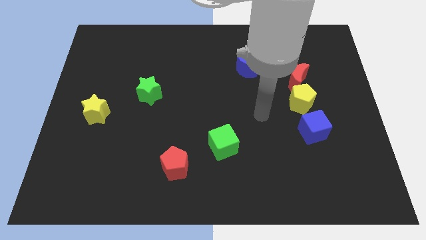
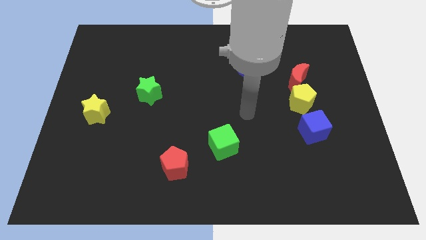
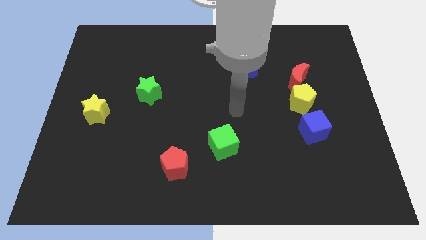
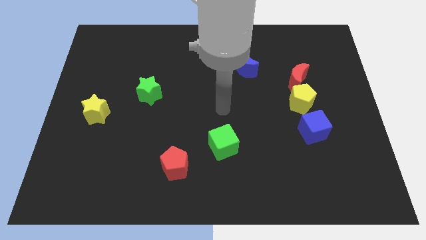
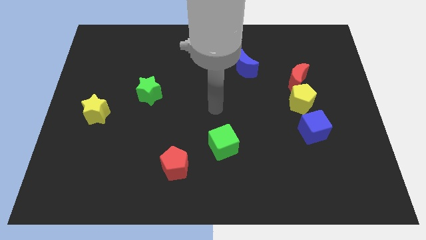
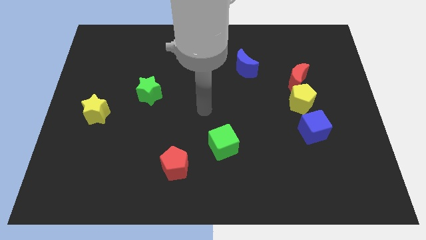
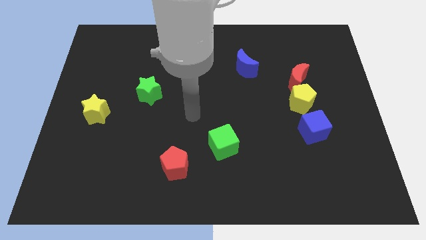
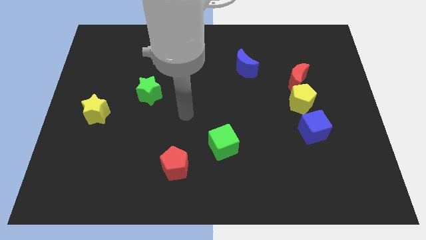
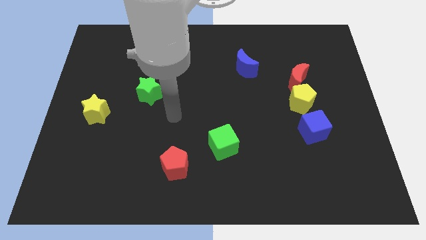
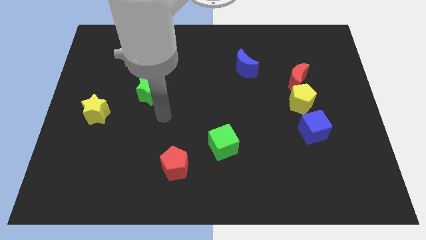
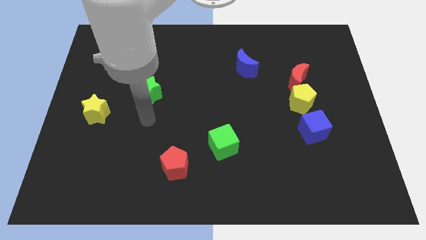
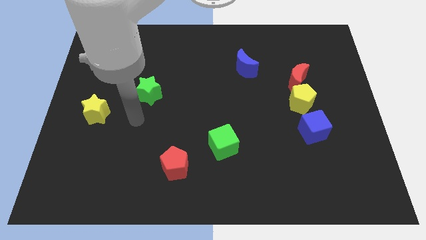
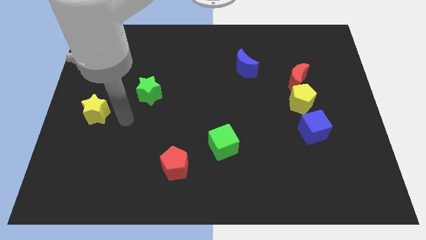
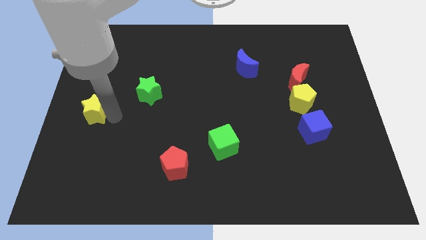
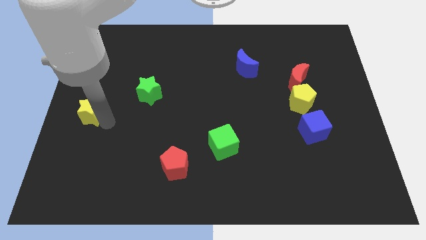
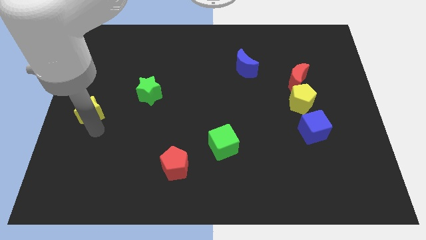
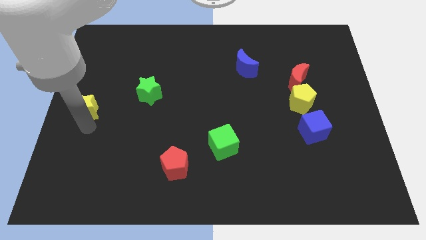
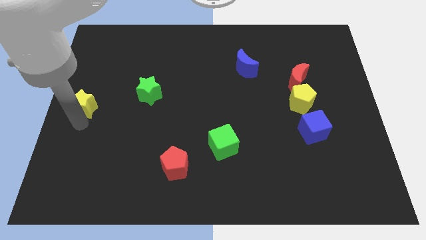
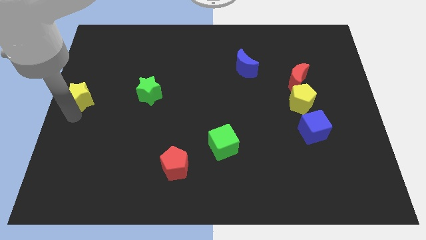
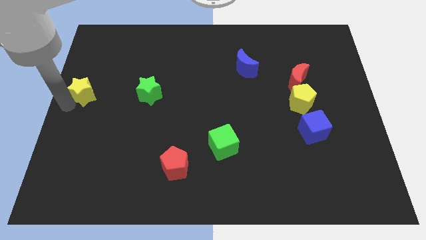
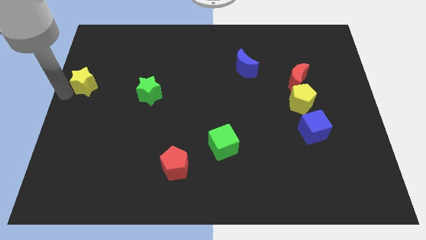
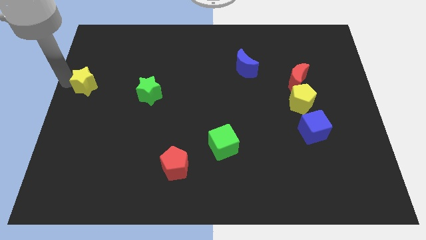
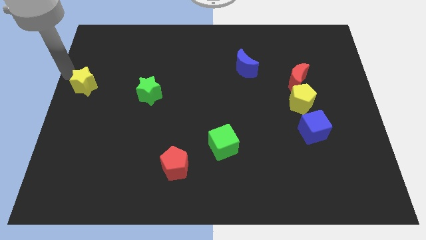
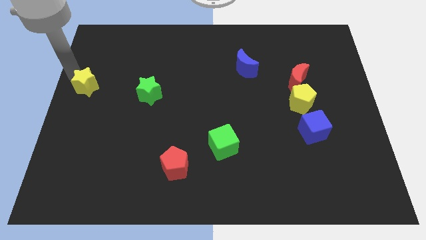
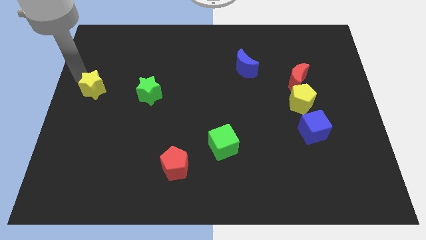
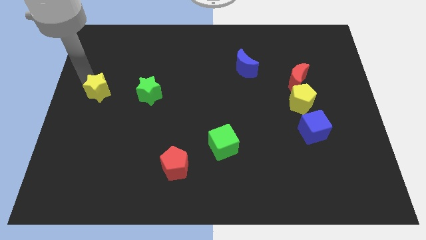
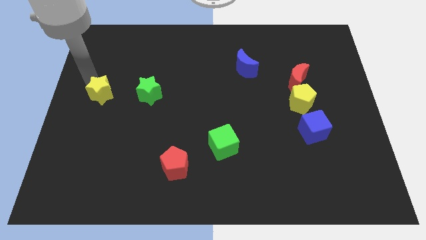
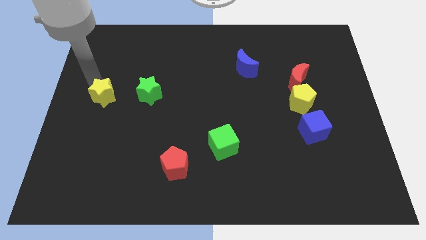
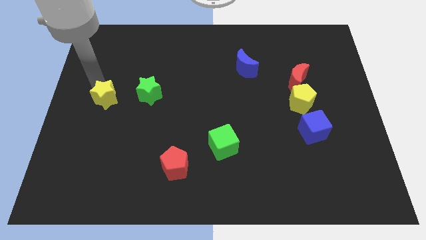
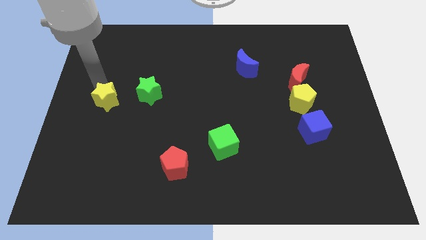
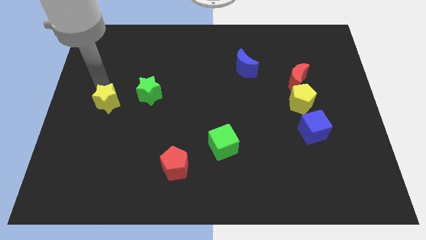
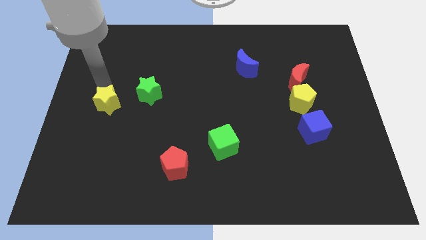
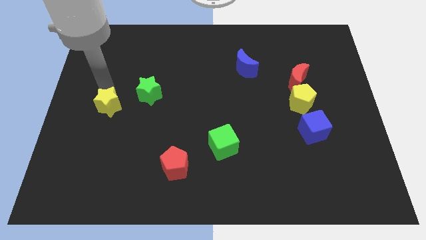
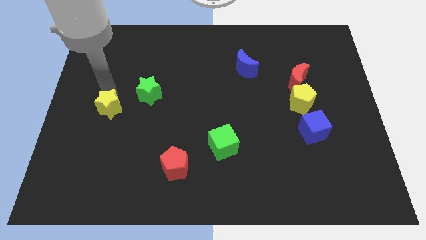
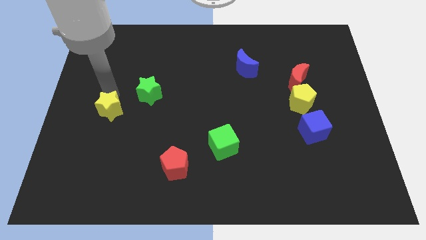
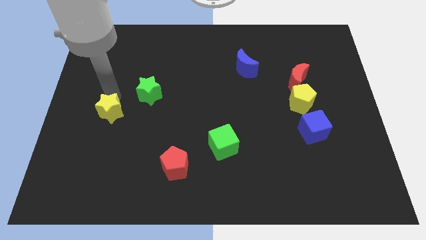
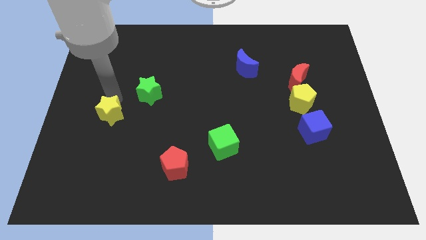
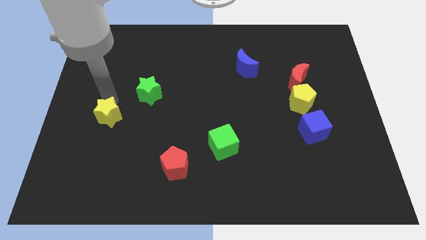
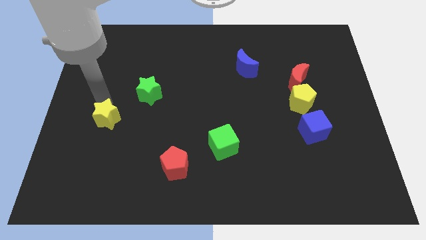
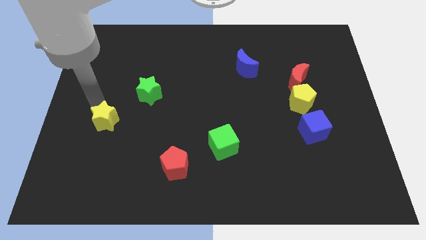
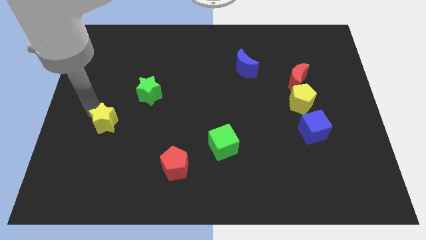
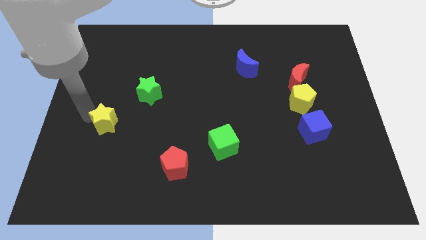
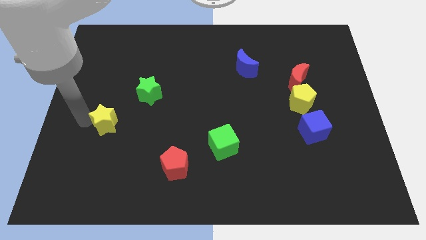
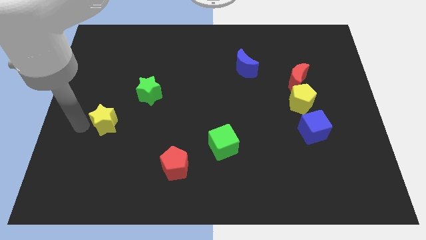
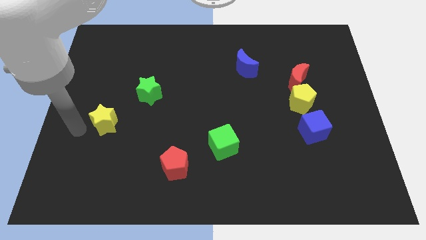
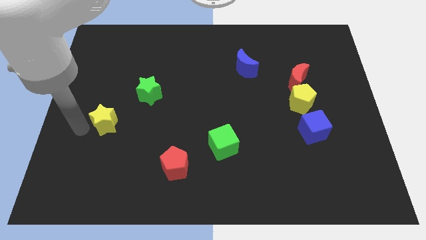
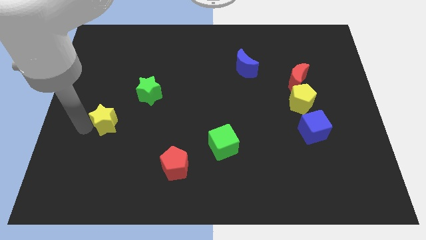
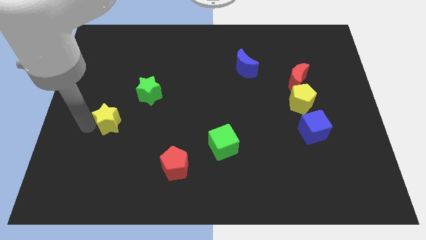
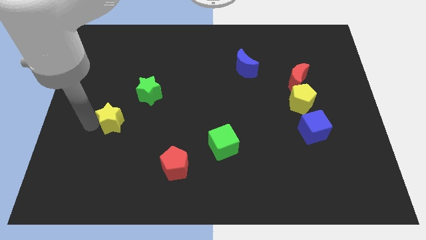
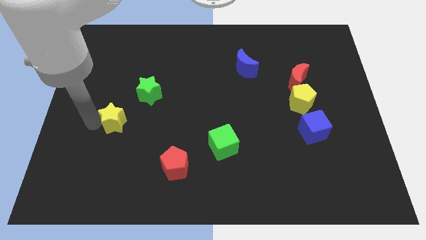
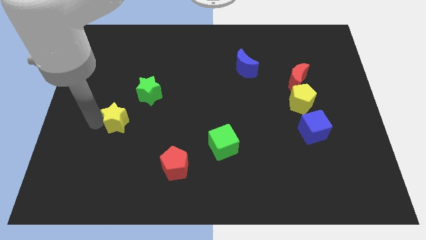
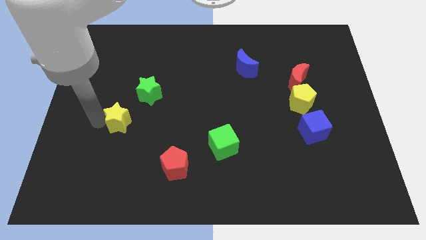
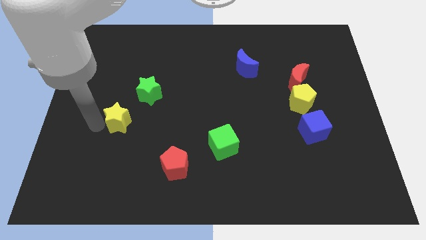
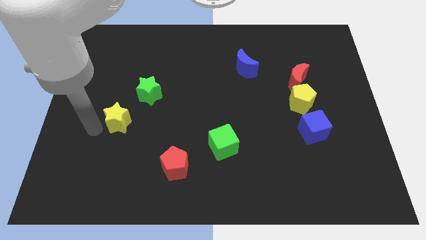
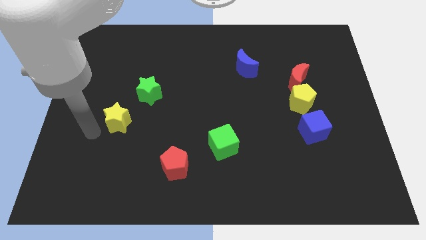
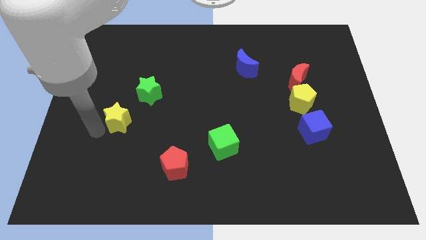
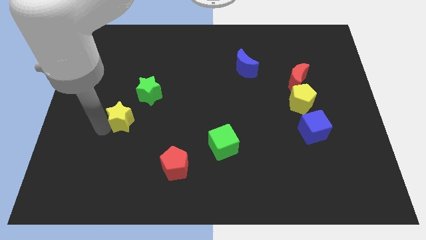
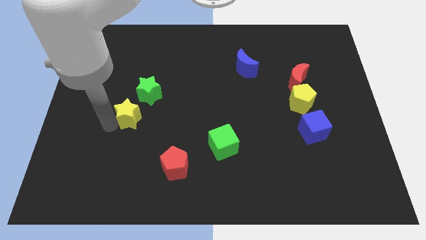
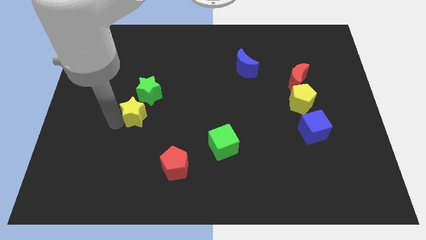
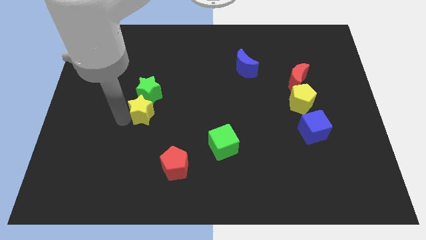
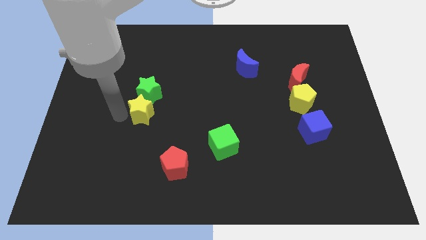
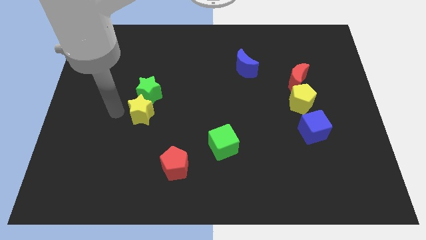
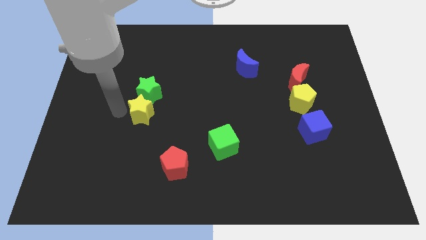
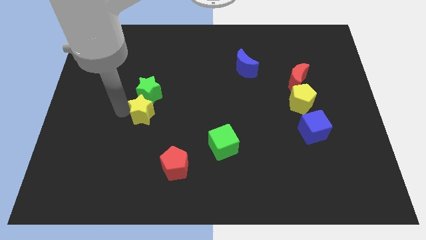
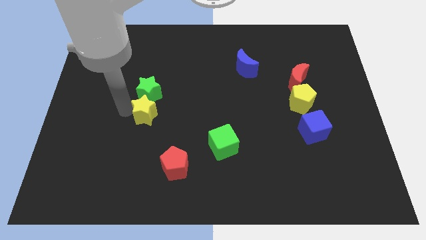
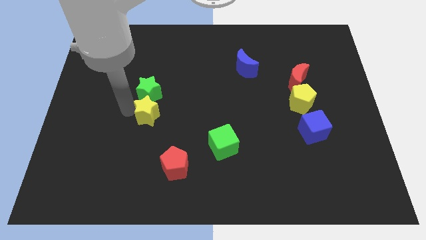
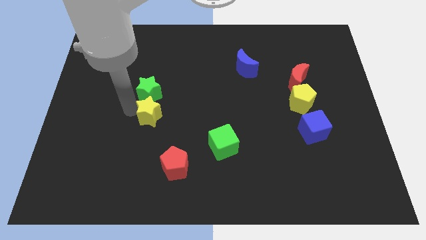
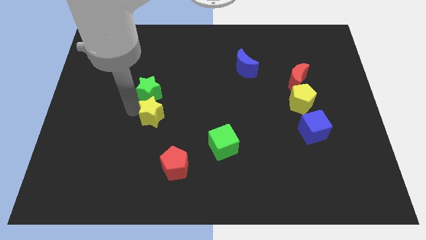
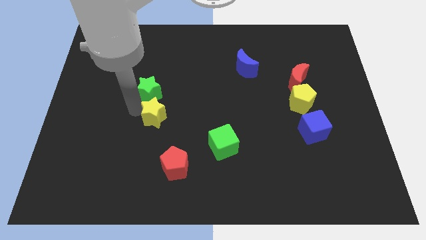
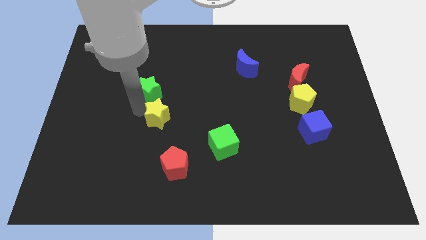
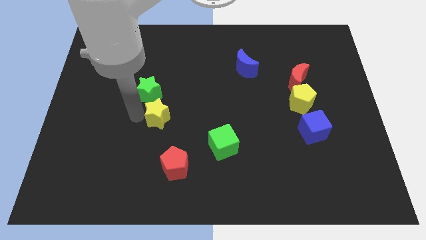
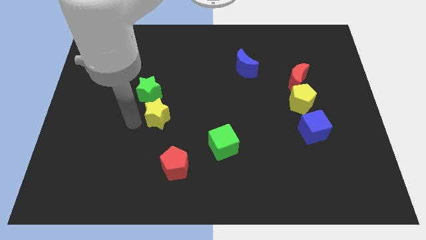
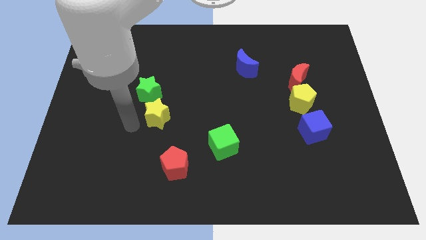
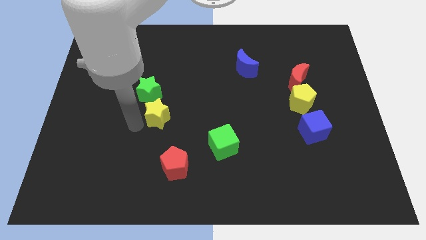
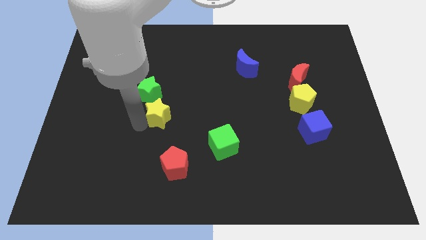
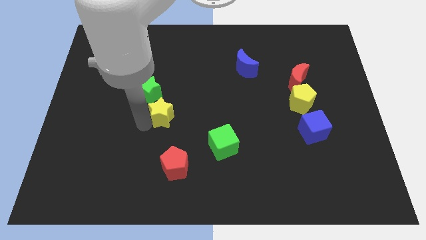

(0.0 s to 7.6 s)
move the yellow star to the center of the board
